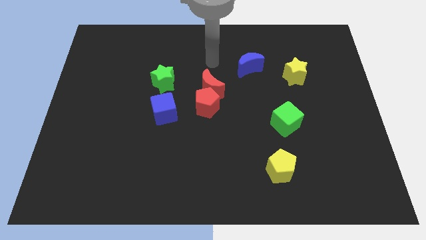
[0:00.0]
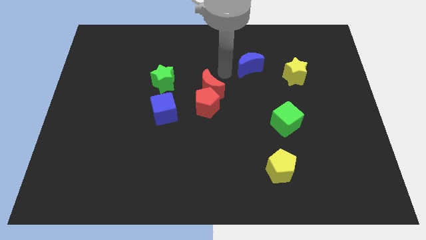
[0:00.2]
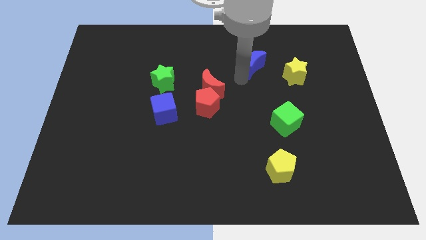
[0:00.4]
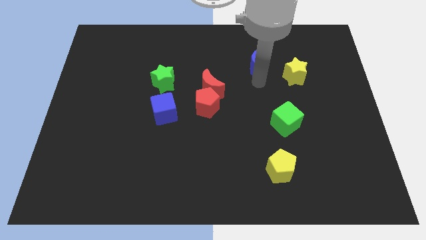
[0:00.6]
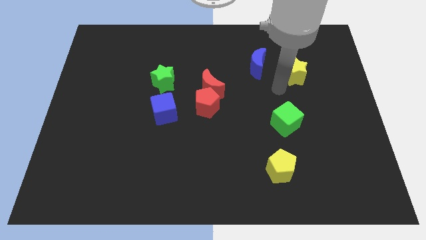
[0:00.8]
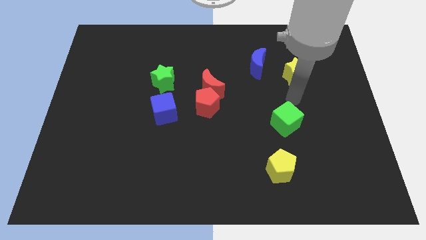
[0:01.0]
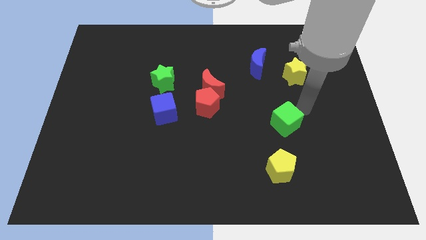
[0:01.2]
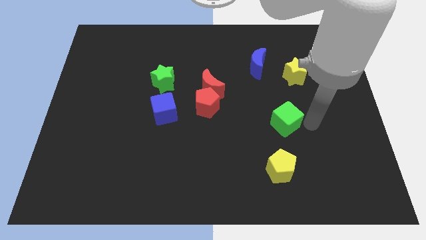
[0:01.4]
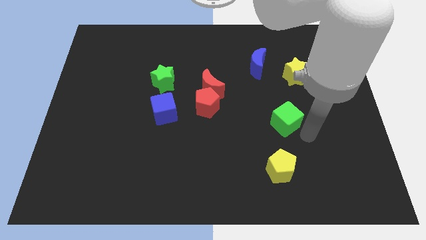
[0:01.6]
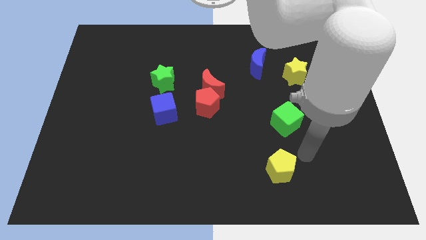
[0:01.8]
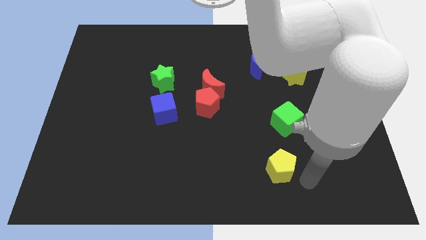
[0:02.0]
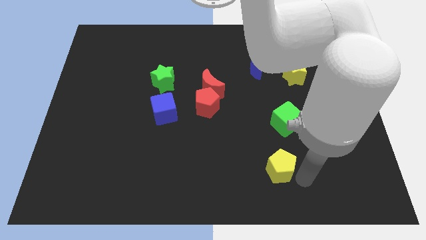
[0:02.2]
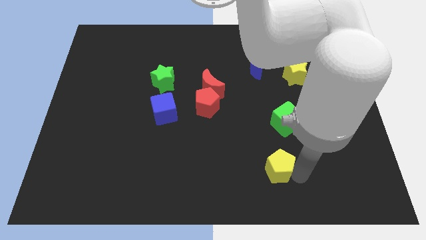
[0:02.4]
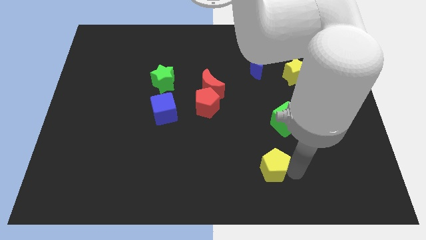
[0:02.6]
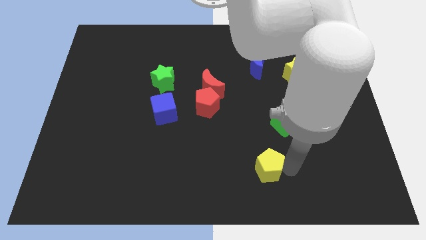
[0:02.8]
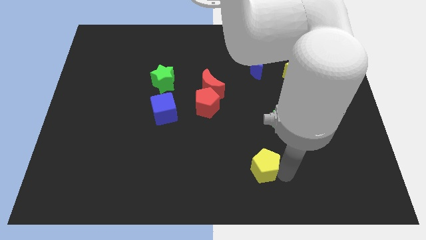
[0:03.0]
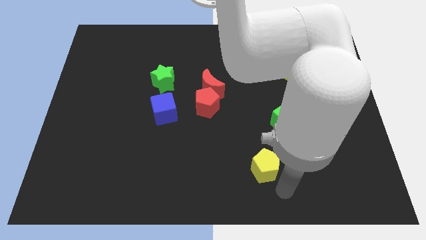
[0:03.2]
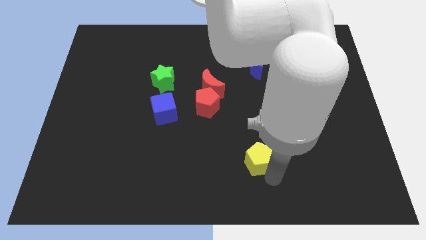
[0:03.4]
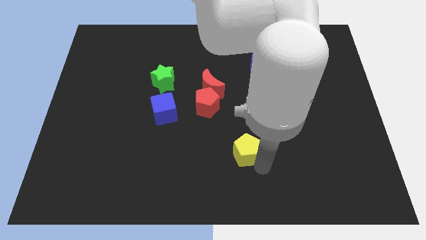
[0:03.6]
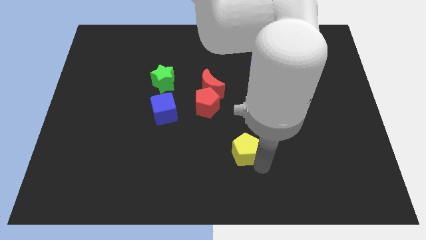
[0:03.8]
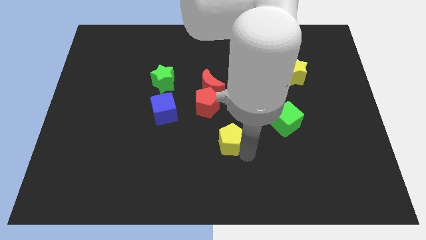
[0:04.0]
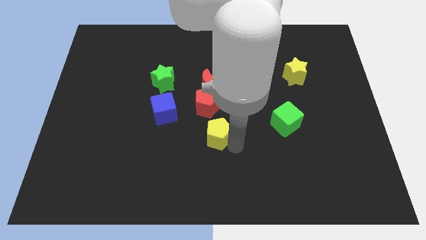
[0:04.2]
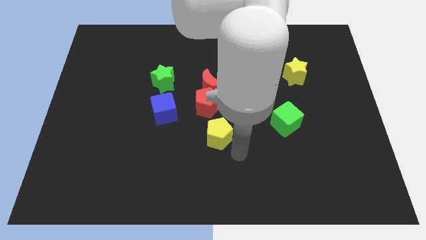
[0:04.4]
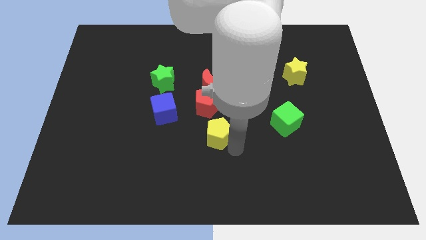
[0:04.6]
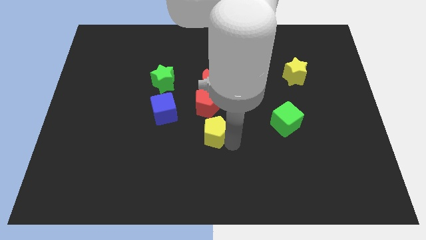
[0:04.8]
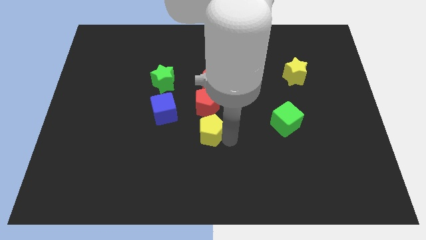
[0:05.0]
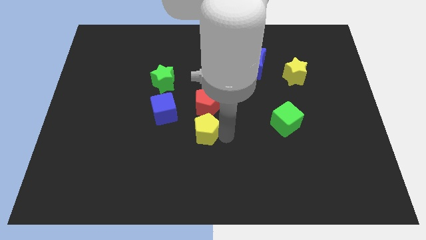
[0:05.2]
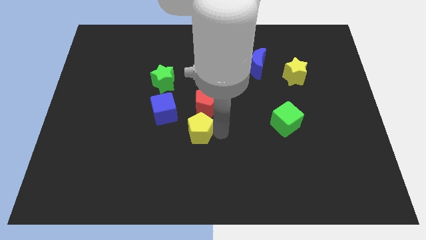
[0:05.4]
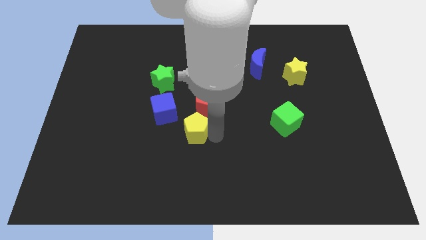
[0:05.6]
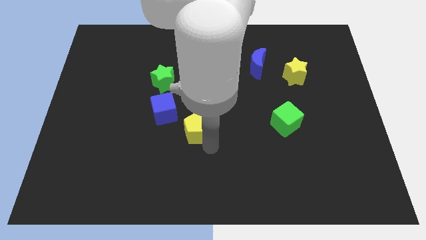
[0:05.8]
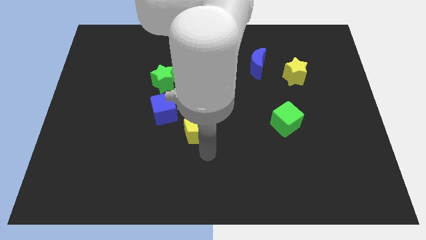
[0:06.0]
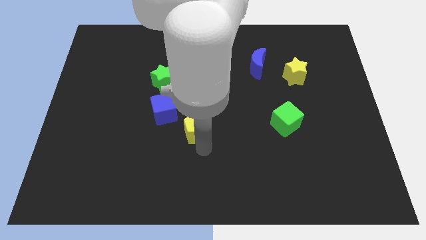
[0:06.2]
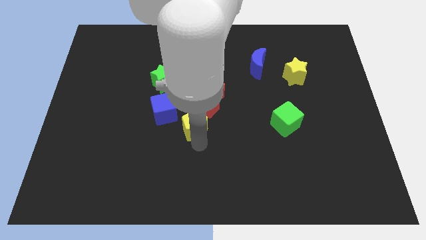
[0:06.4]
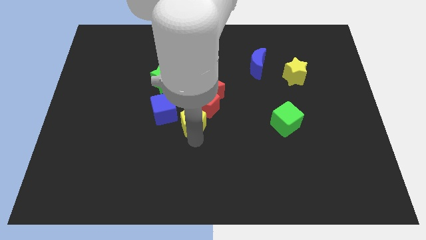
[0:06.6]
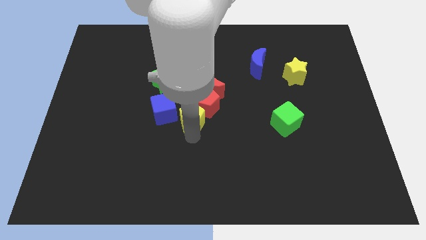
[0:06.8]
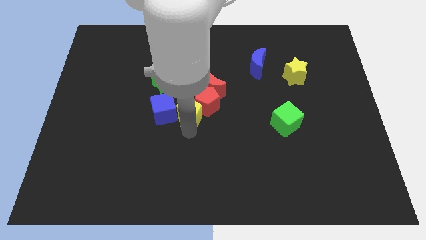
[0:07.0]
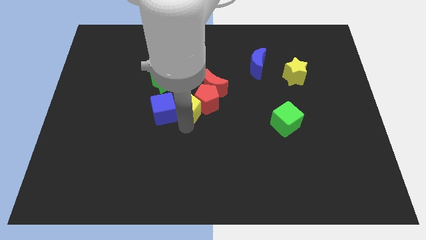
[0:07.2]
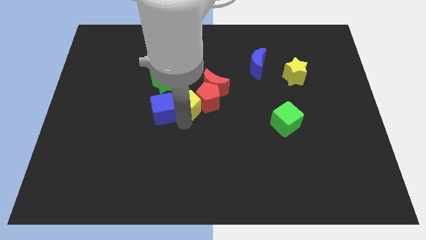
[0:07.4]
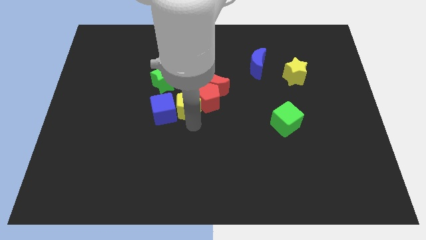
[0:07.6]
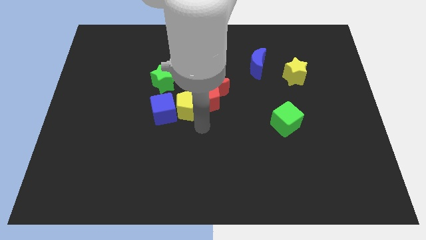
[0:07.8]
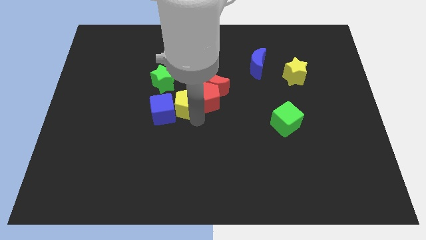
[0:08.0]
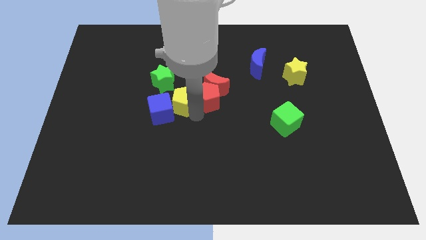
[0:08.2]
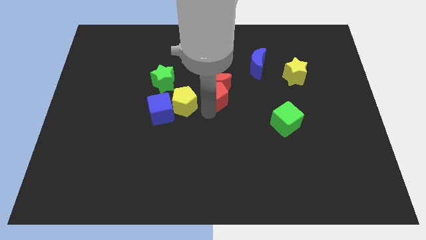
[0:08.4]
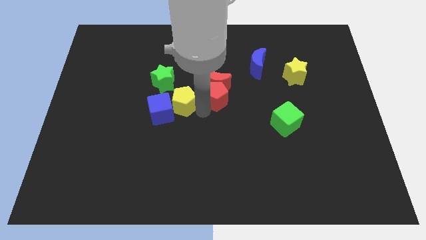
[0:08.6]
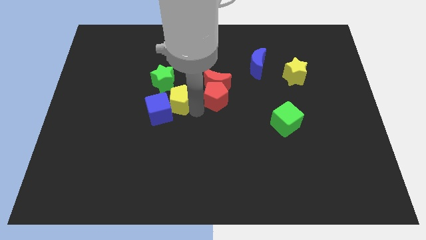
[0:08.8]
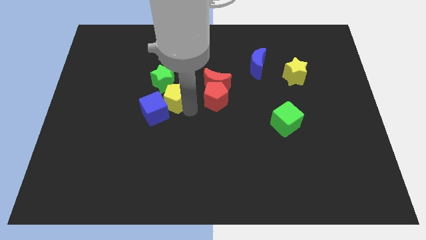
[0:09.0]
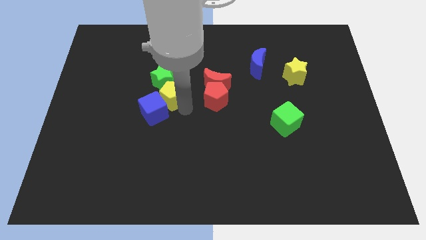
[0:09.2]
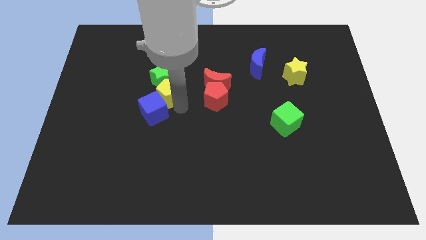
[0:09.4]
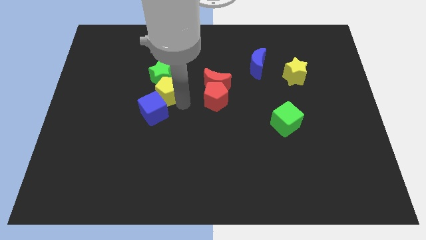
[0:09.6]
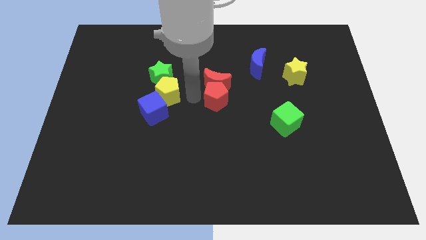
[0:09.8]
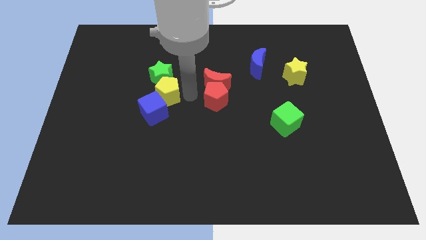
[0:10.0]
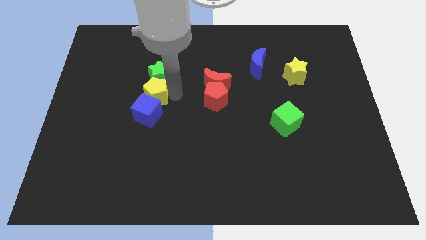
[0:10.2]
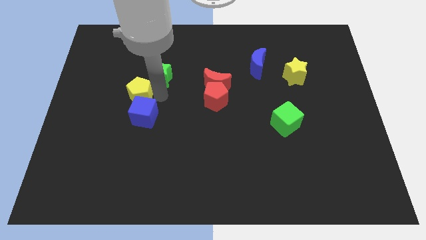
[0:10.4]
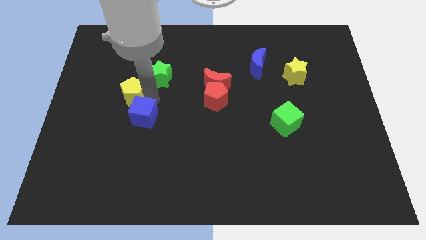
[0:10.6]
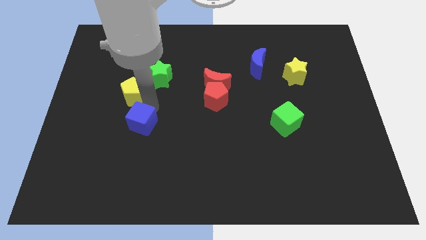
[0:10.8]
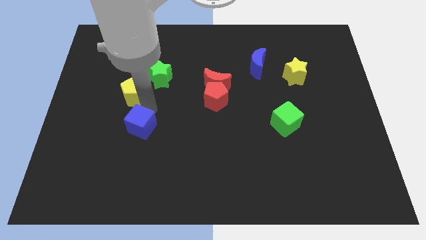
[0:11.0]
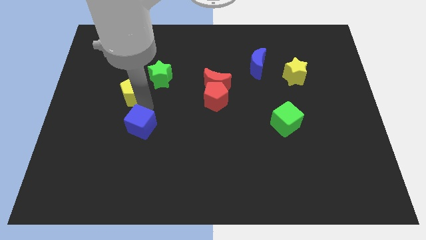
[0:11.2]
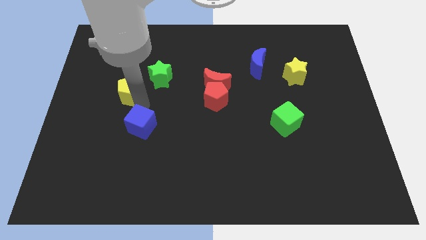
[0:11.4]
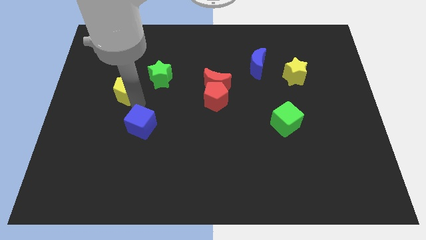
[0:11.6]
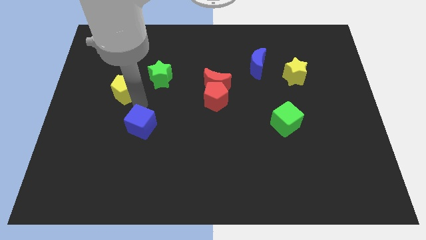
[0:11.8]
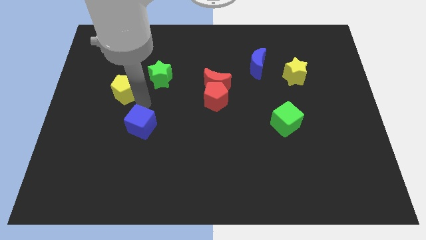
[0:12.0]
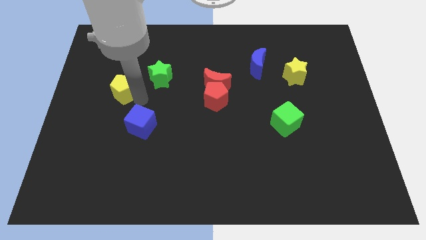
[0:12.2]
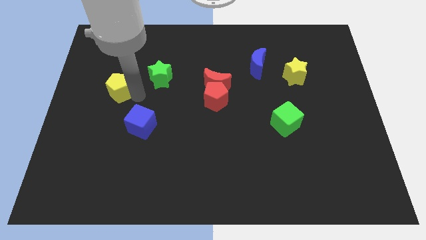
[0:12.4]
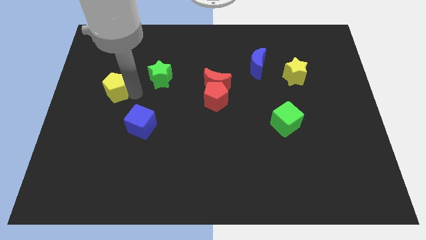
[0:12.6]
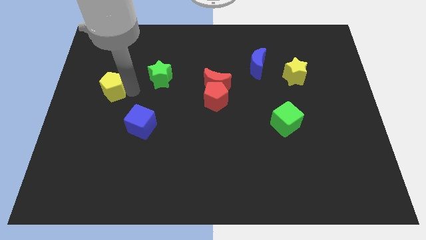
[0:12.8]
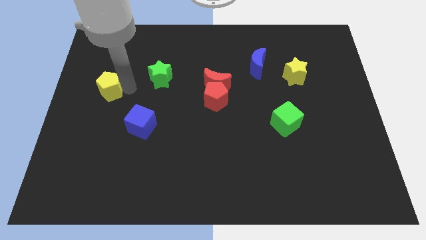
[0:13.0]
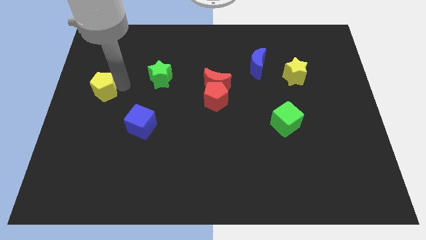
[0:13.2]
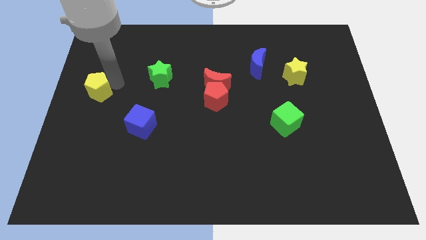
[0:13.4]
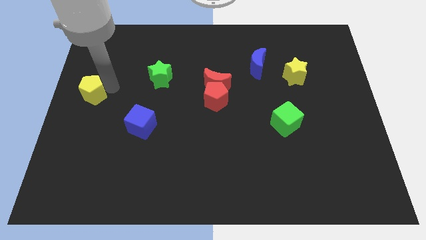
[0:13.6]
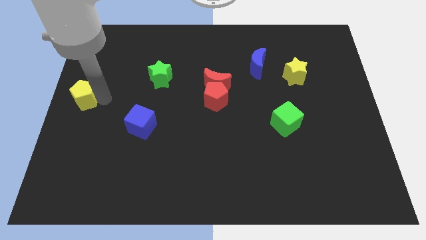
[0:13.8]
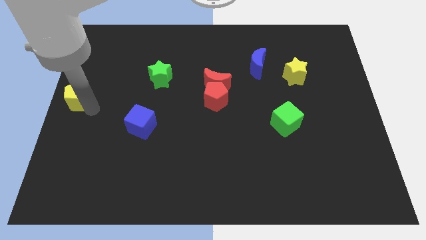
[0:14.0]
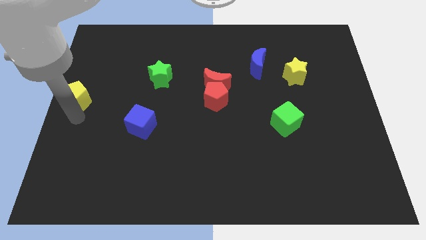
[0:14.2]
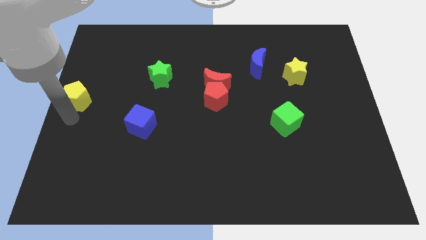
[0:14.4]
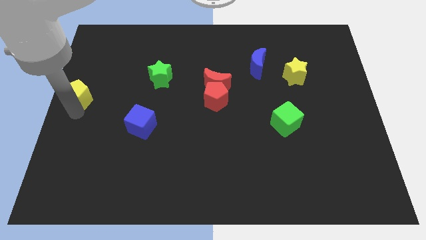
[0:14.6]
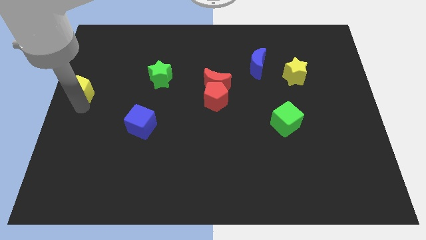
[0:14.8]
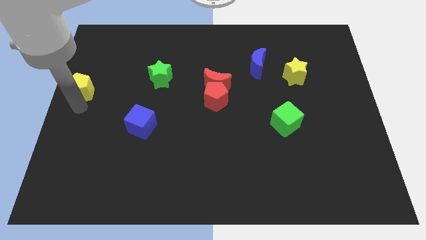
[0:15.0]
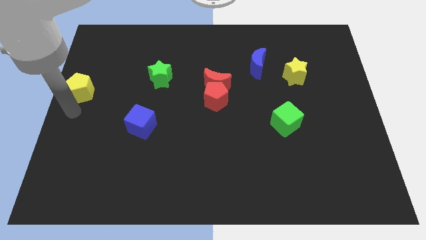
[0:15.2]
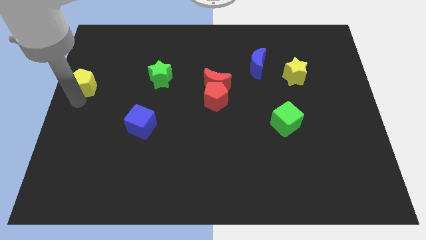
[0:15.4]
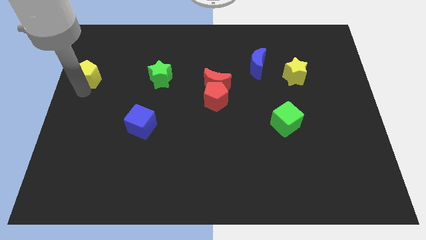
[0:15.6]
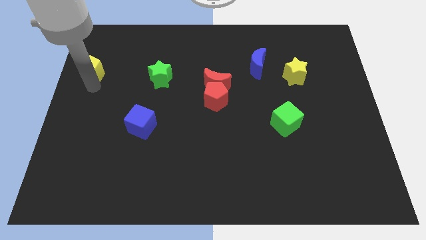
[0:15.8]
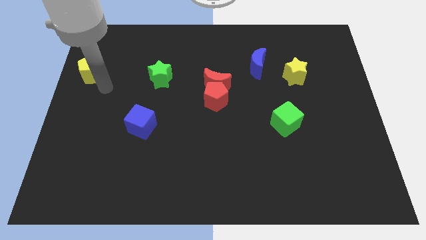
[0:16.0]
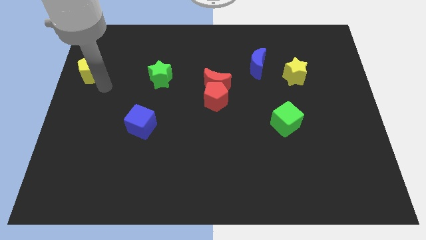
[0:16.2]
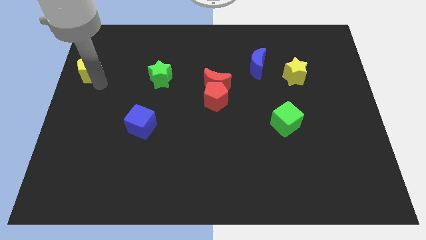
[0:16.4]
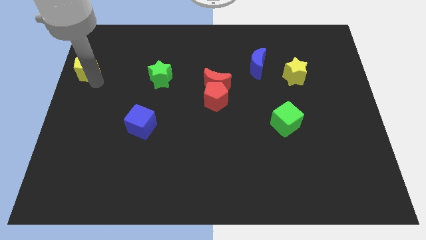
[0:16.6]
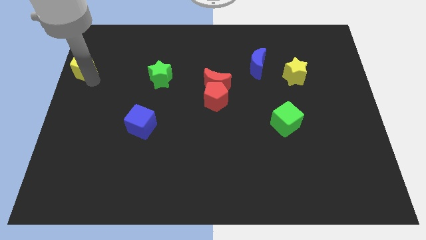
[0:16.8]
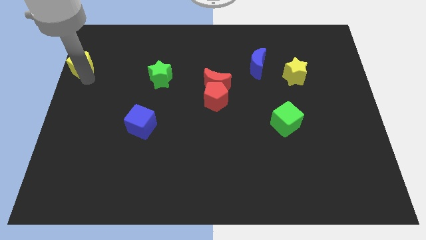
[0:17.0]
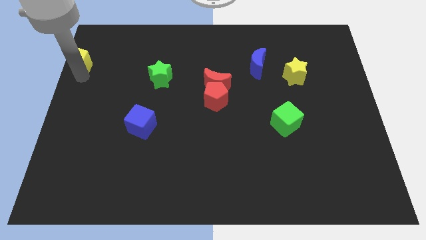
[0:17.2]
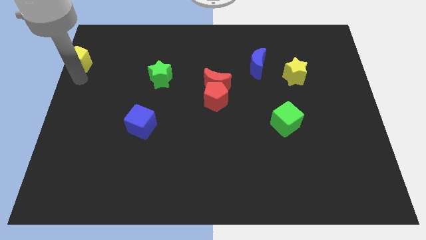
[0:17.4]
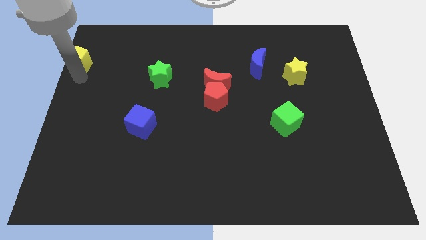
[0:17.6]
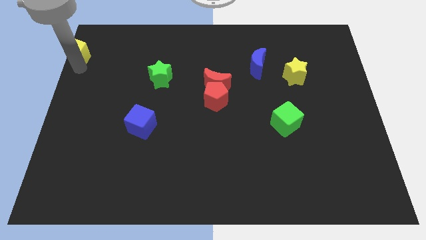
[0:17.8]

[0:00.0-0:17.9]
slide the yellow pentagon to the upper left corner
